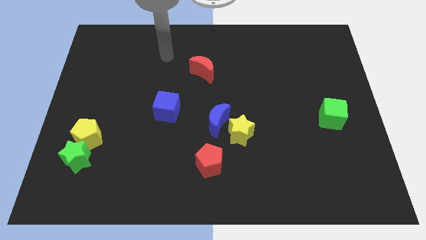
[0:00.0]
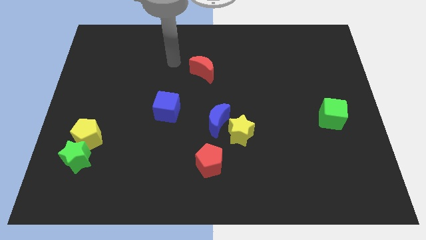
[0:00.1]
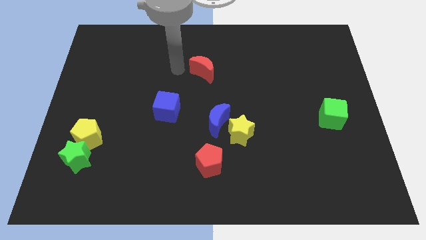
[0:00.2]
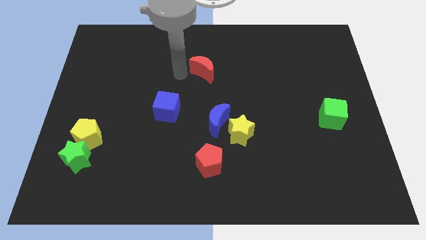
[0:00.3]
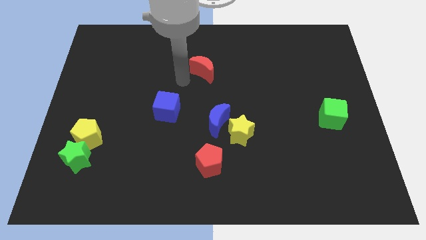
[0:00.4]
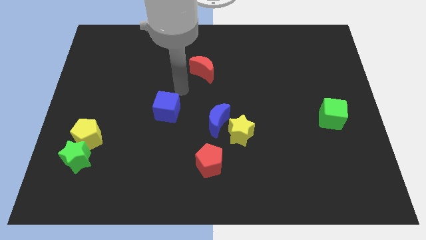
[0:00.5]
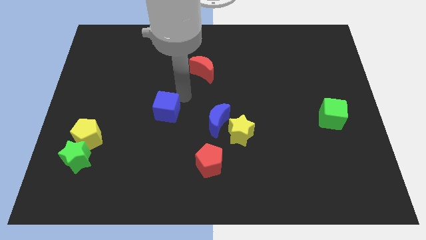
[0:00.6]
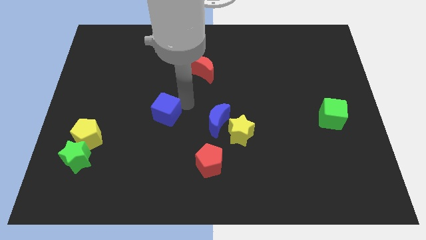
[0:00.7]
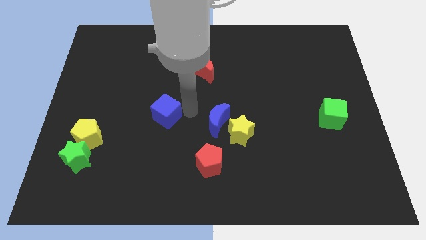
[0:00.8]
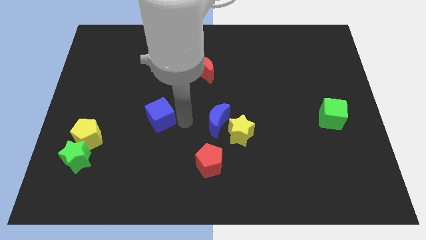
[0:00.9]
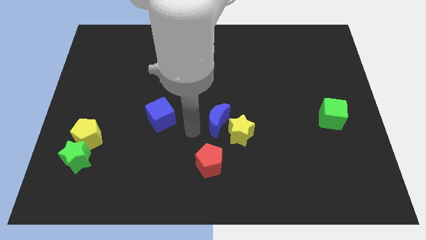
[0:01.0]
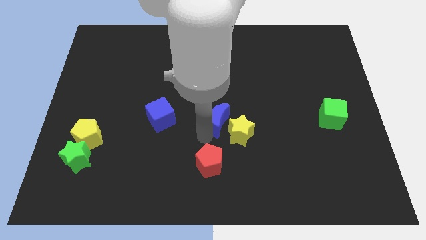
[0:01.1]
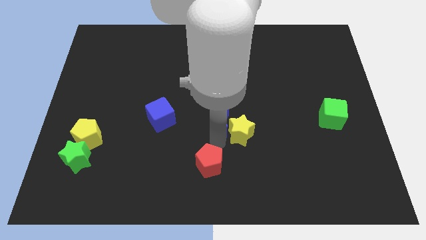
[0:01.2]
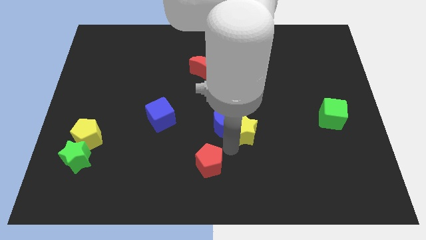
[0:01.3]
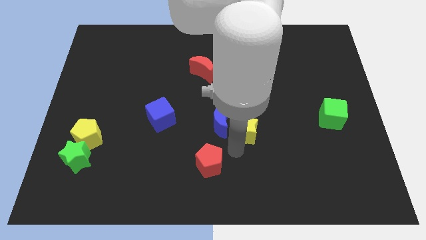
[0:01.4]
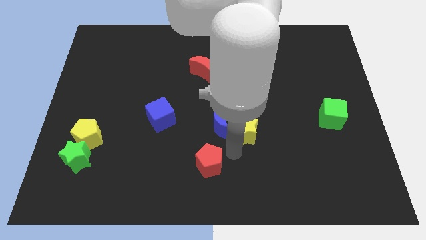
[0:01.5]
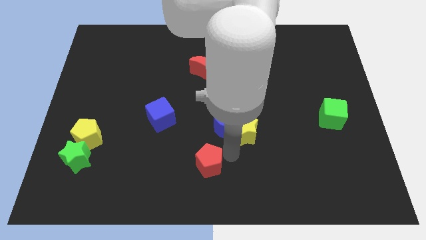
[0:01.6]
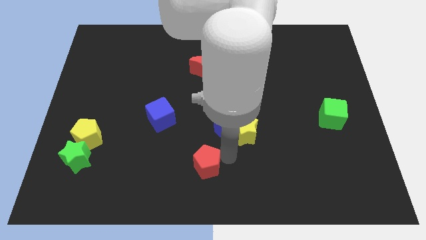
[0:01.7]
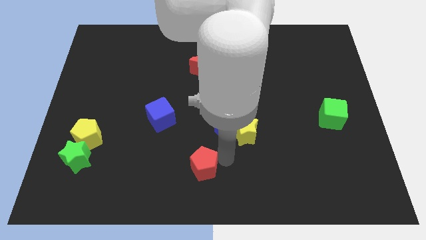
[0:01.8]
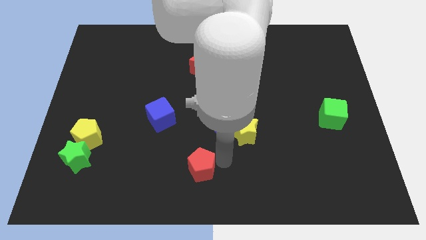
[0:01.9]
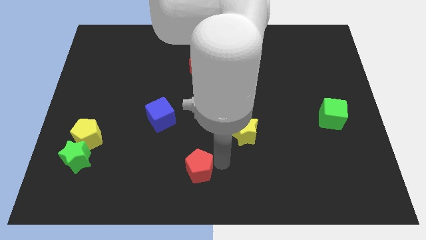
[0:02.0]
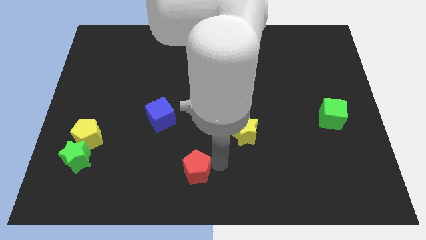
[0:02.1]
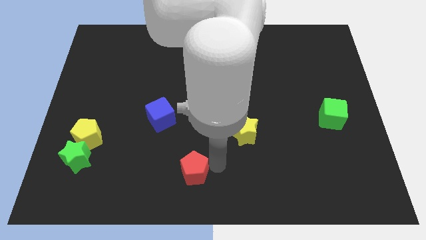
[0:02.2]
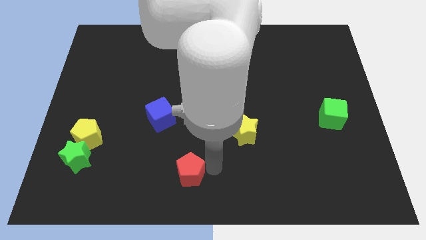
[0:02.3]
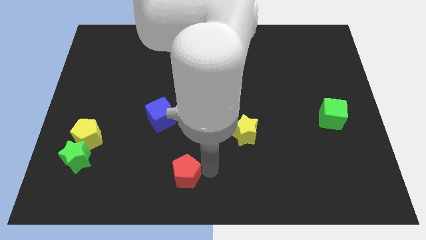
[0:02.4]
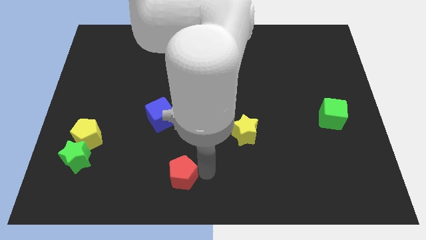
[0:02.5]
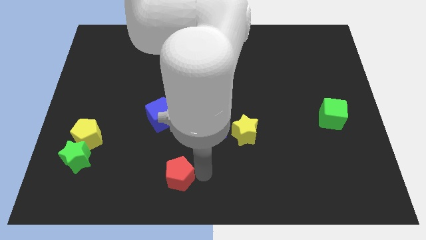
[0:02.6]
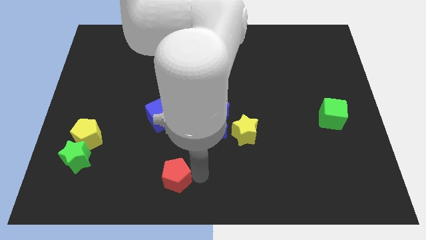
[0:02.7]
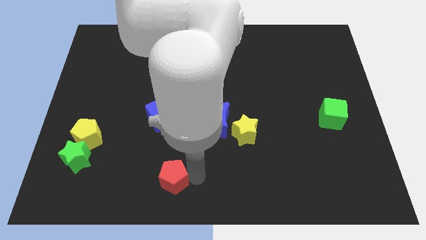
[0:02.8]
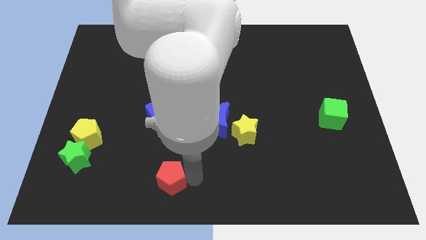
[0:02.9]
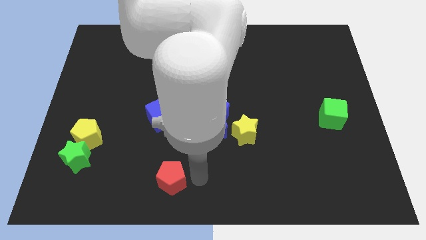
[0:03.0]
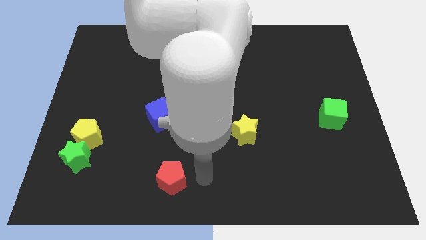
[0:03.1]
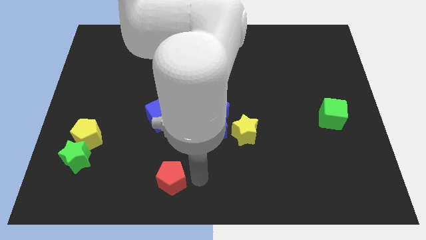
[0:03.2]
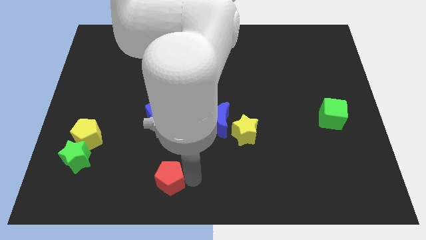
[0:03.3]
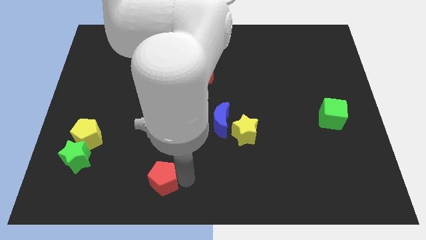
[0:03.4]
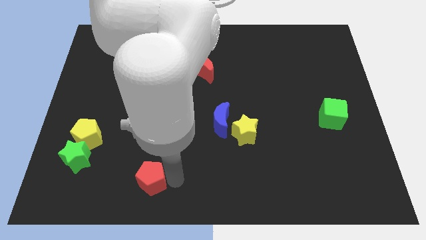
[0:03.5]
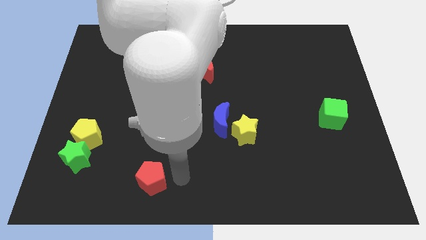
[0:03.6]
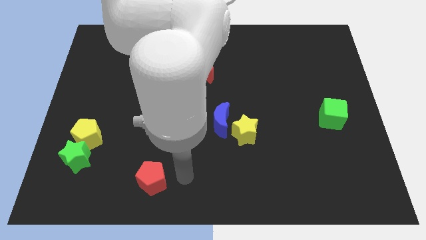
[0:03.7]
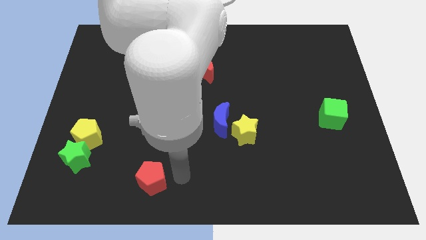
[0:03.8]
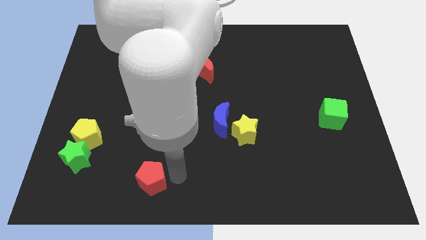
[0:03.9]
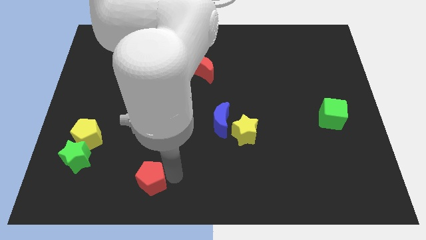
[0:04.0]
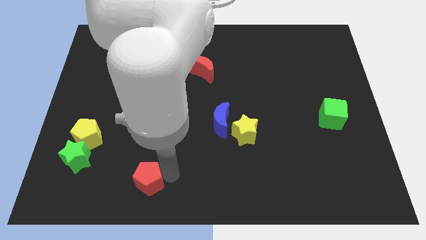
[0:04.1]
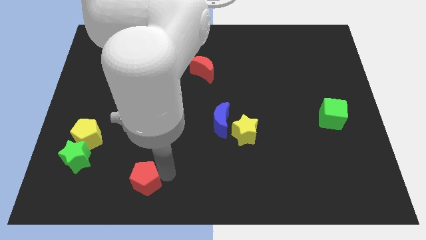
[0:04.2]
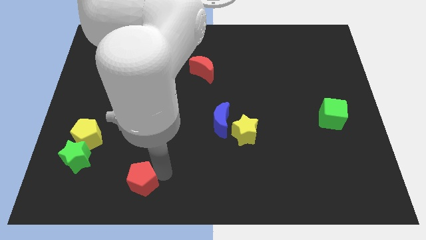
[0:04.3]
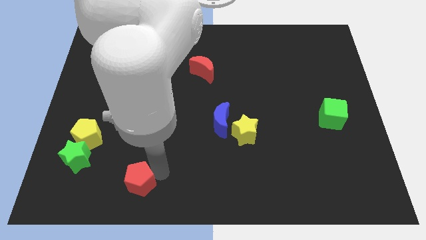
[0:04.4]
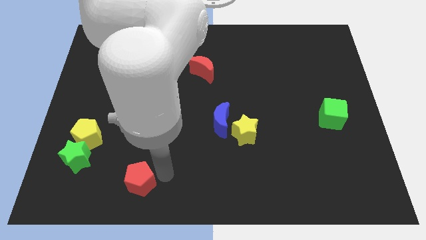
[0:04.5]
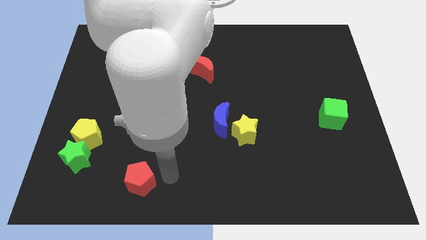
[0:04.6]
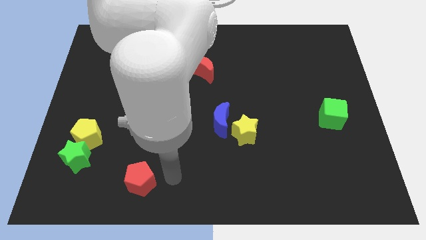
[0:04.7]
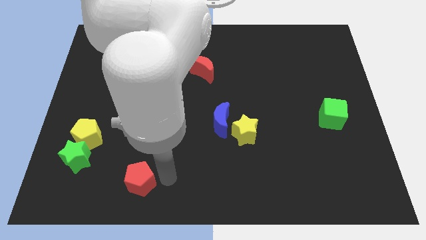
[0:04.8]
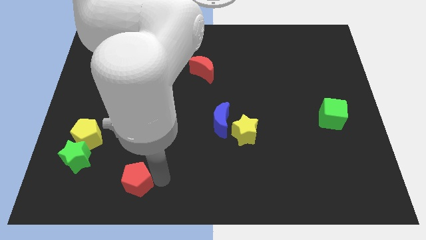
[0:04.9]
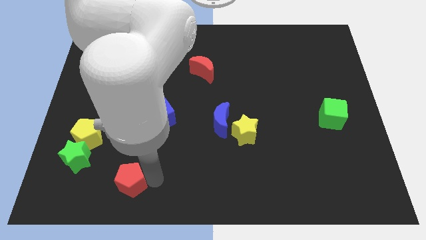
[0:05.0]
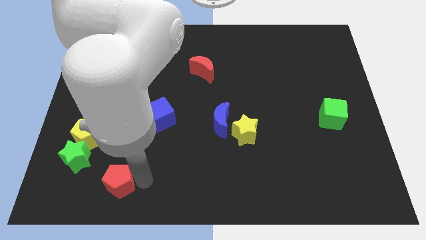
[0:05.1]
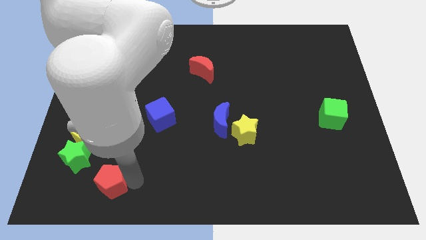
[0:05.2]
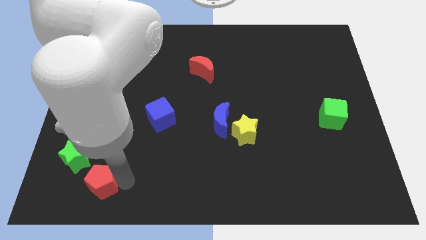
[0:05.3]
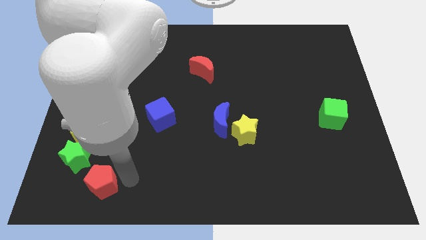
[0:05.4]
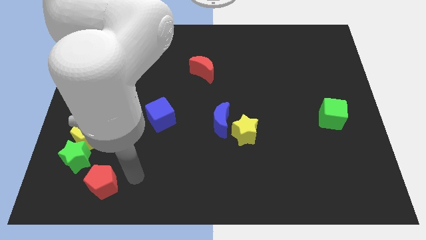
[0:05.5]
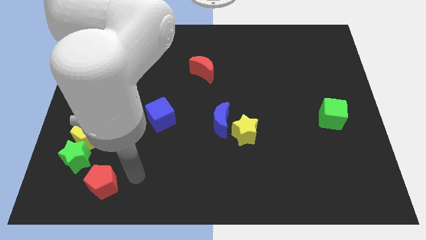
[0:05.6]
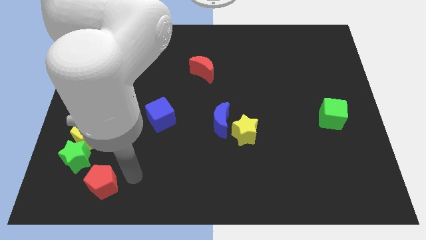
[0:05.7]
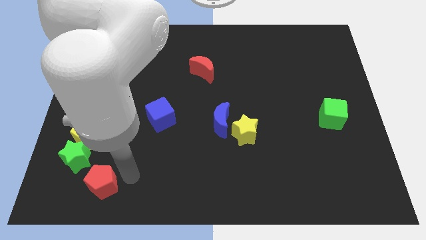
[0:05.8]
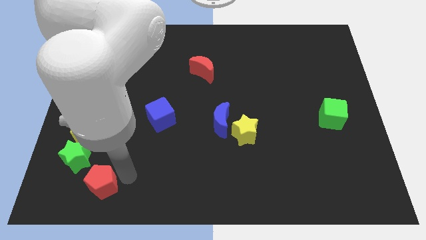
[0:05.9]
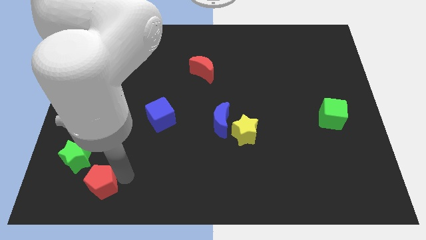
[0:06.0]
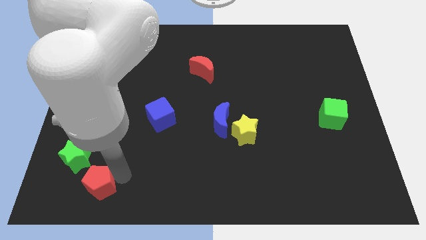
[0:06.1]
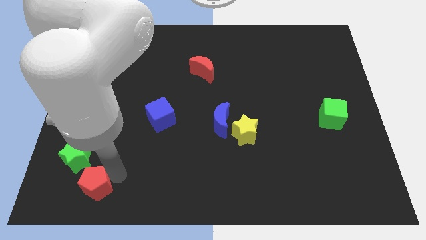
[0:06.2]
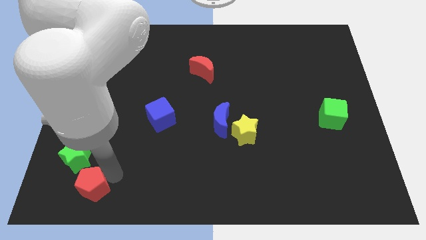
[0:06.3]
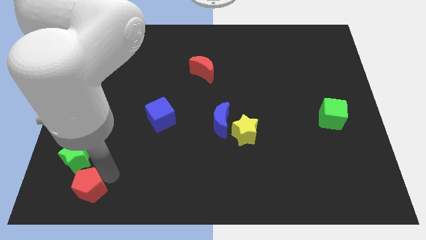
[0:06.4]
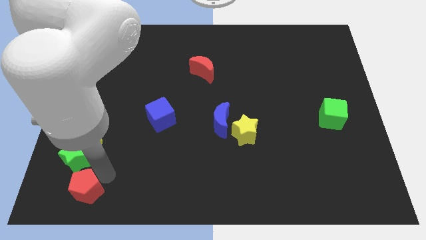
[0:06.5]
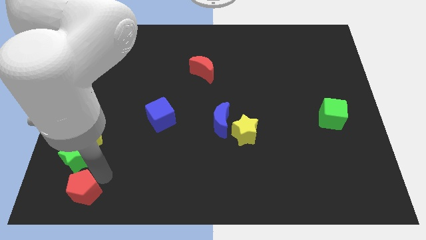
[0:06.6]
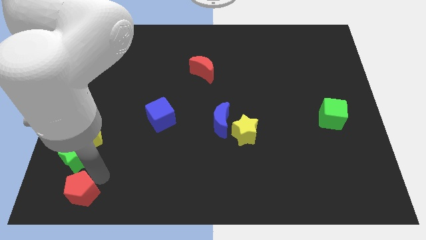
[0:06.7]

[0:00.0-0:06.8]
put the red pentagon to the bottom left of the board
